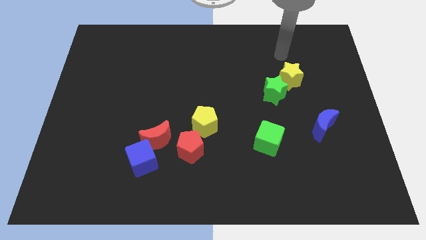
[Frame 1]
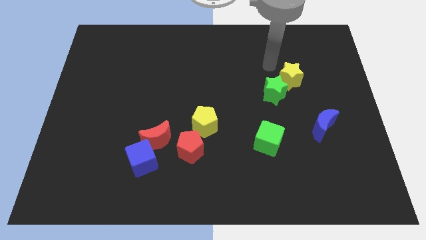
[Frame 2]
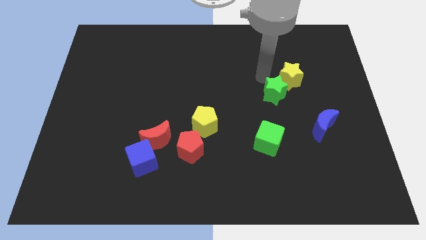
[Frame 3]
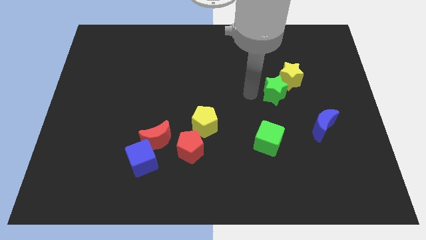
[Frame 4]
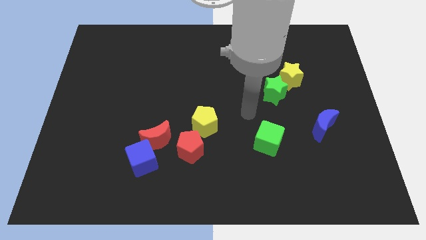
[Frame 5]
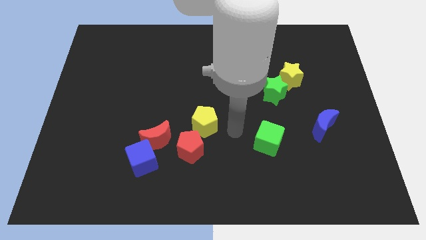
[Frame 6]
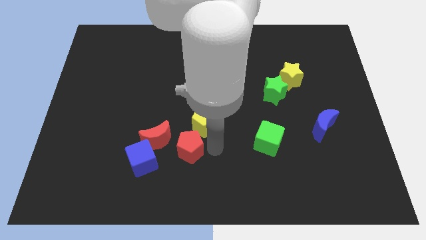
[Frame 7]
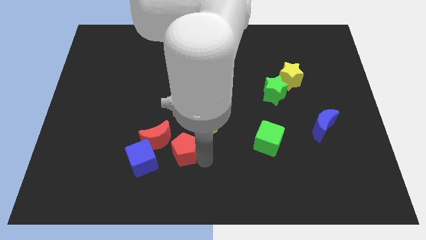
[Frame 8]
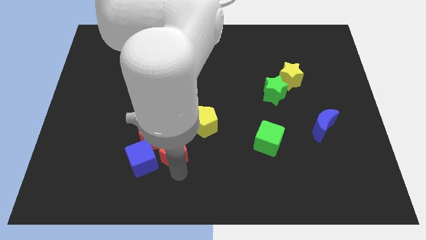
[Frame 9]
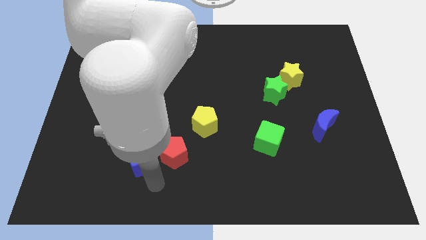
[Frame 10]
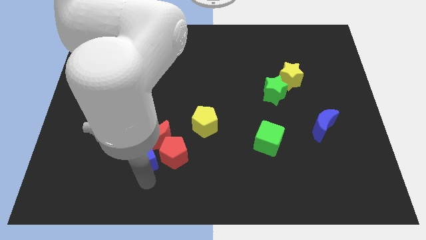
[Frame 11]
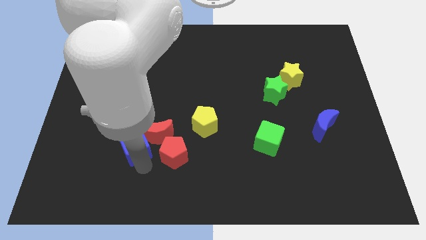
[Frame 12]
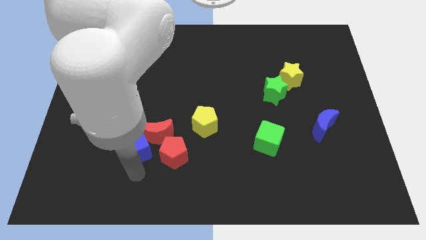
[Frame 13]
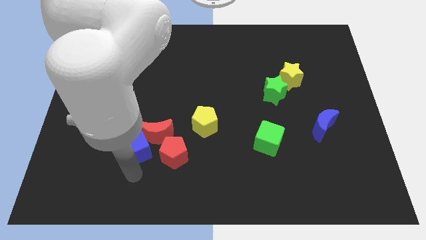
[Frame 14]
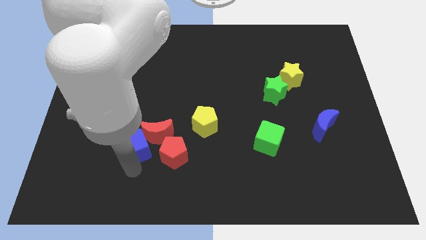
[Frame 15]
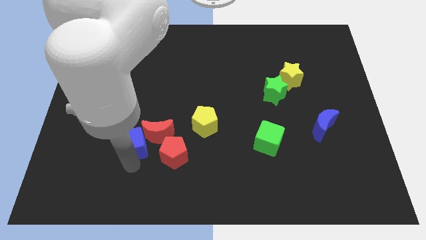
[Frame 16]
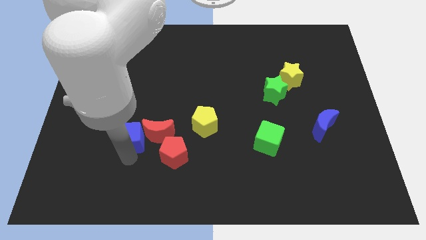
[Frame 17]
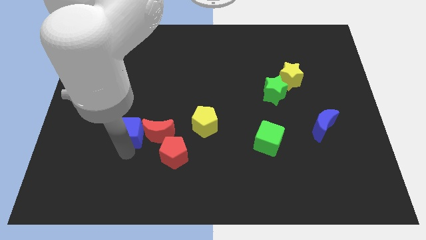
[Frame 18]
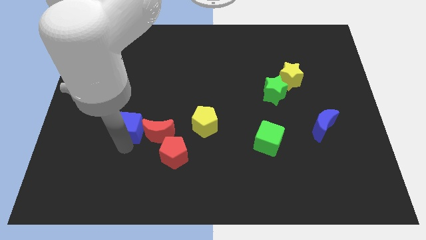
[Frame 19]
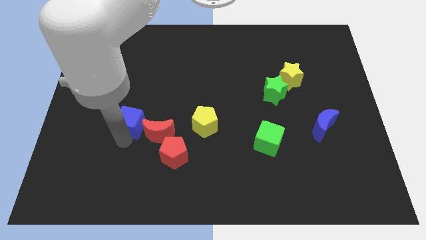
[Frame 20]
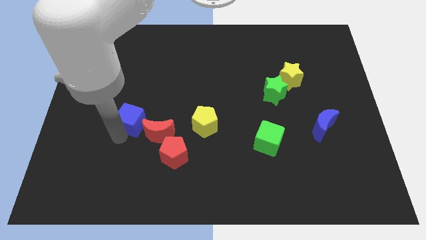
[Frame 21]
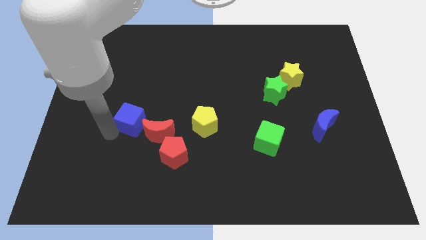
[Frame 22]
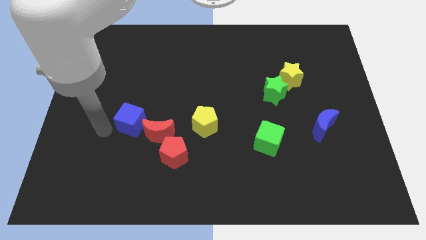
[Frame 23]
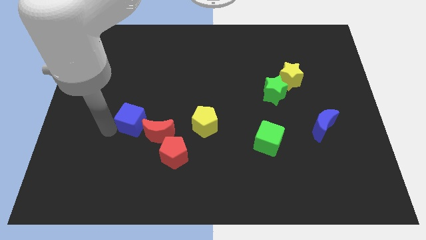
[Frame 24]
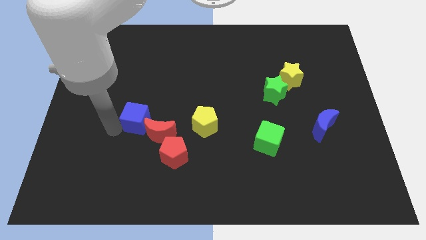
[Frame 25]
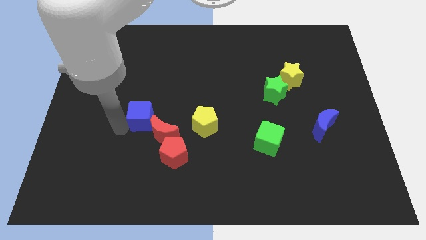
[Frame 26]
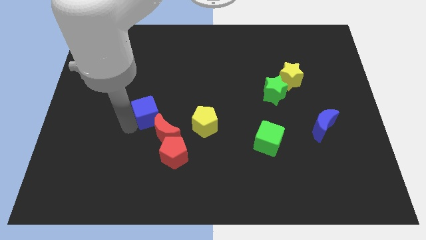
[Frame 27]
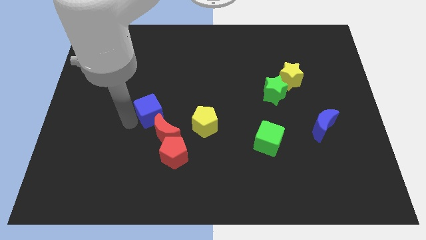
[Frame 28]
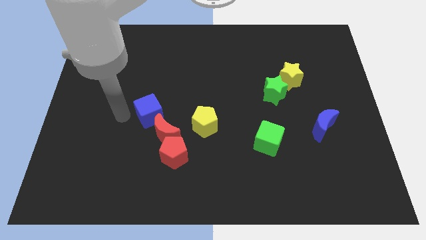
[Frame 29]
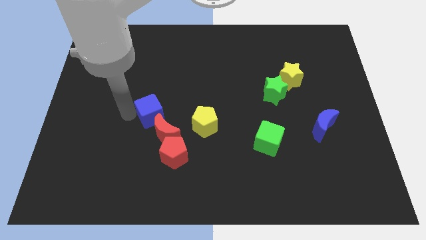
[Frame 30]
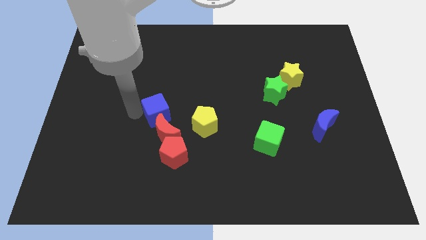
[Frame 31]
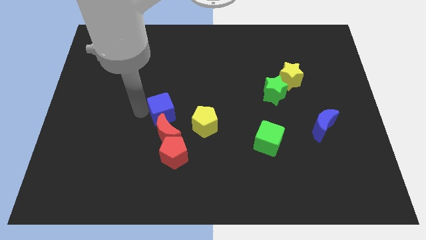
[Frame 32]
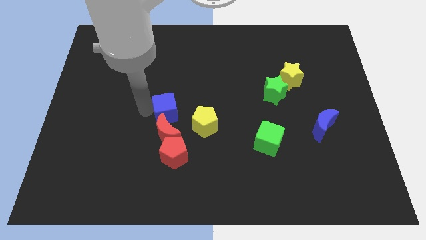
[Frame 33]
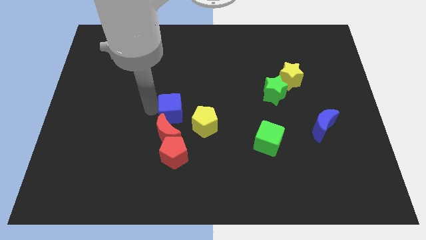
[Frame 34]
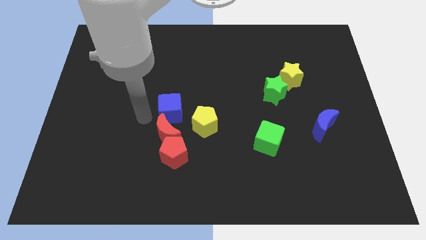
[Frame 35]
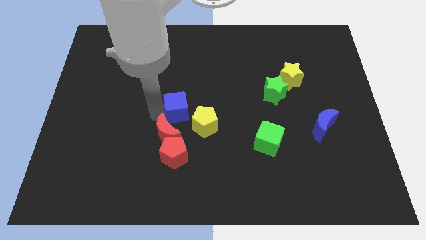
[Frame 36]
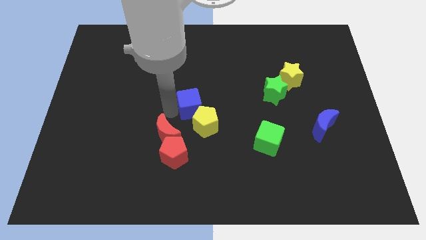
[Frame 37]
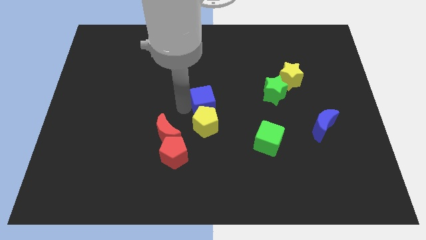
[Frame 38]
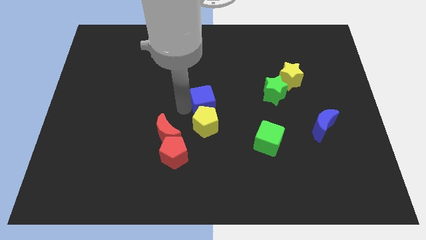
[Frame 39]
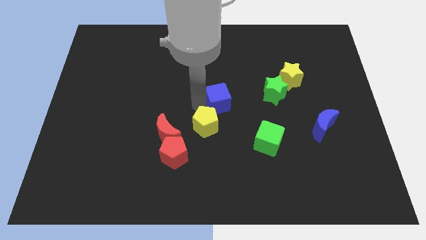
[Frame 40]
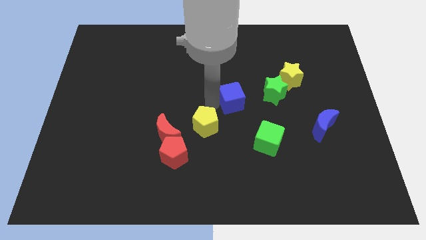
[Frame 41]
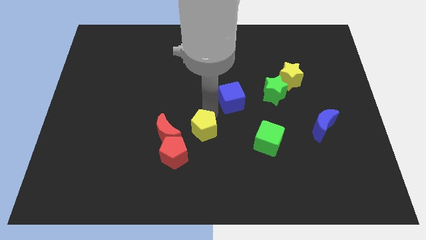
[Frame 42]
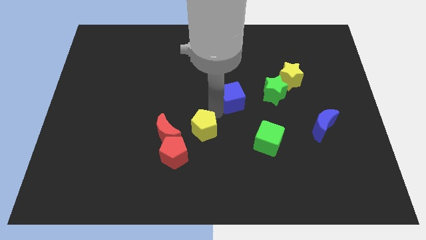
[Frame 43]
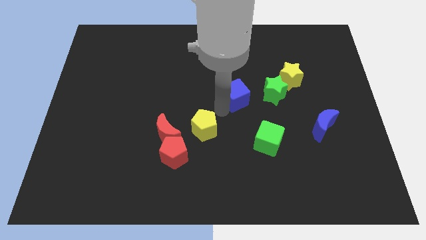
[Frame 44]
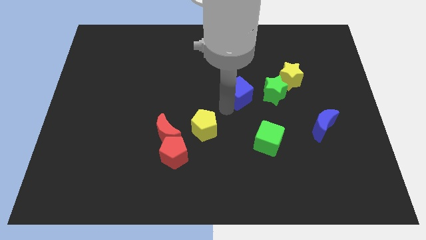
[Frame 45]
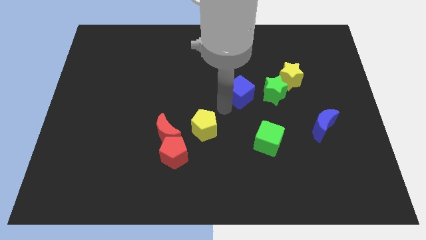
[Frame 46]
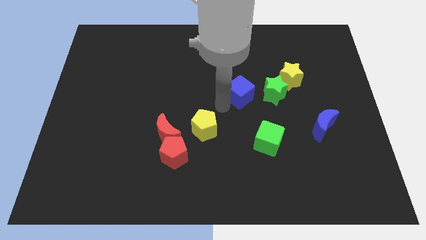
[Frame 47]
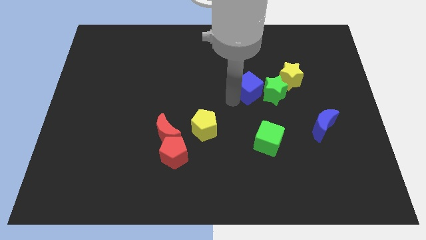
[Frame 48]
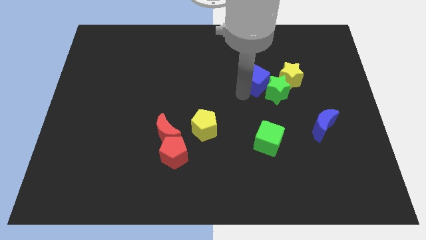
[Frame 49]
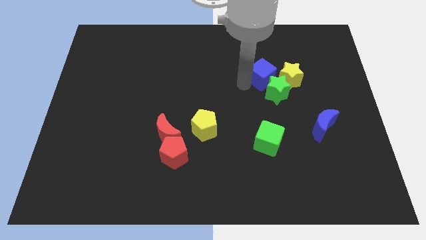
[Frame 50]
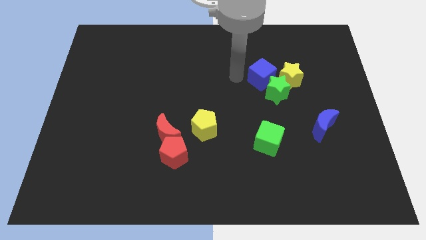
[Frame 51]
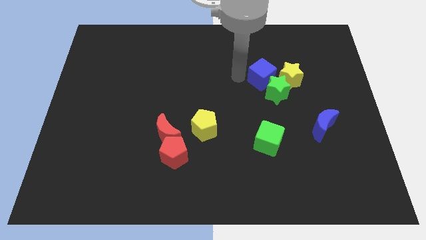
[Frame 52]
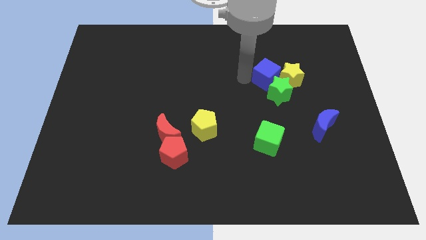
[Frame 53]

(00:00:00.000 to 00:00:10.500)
slide the blue cube close to the yellow star

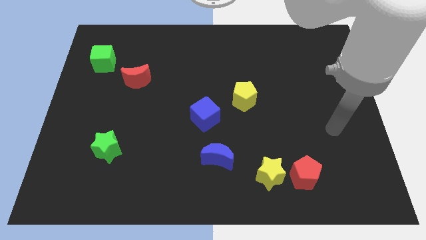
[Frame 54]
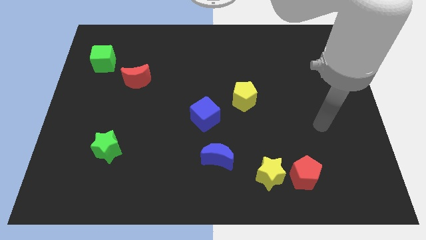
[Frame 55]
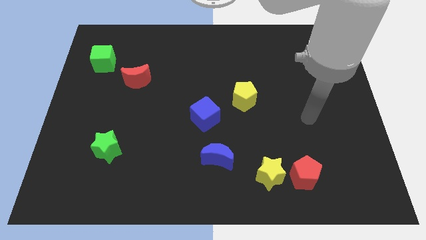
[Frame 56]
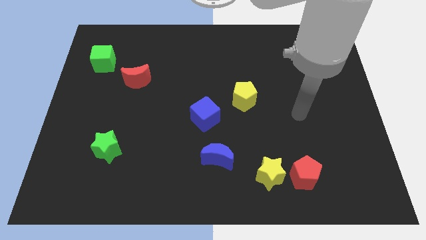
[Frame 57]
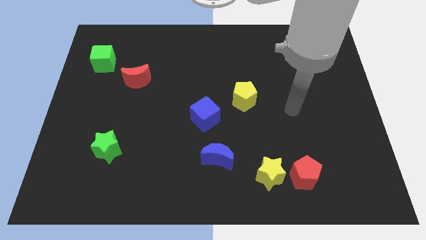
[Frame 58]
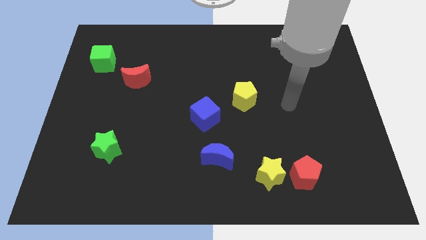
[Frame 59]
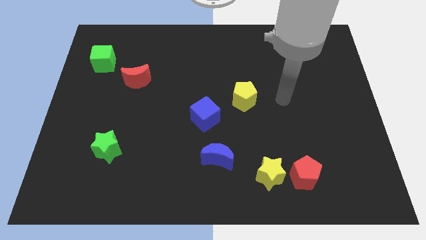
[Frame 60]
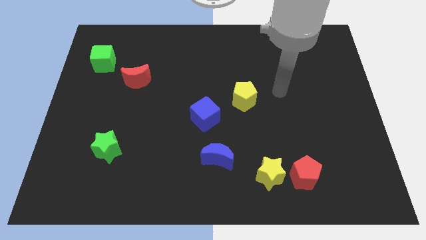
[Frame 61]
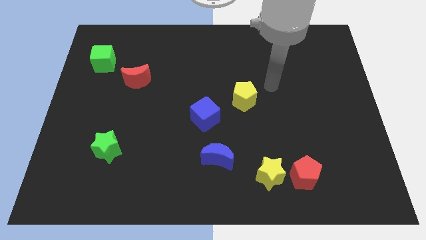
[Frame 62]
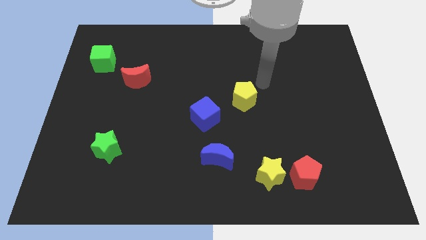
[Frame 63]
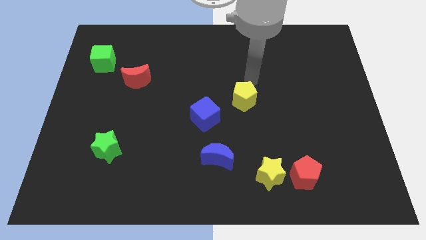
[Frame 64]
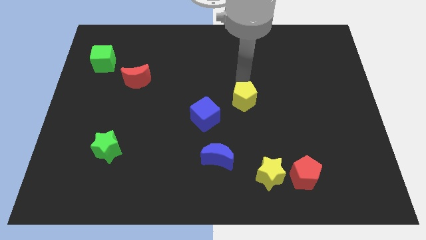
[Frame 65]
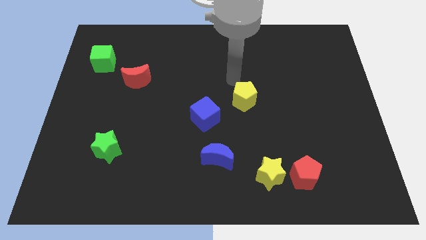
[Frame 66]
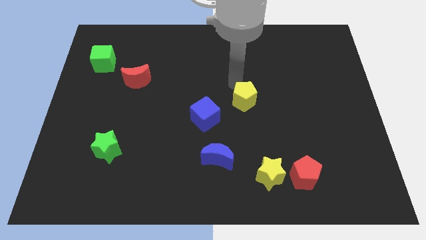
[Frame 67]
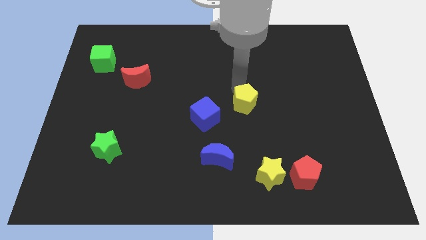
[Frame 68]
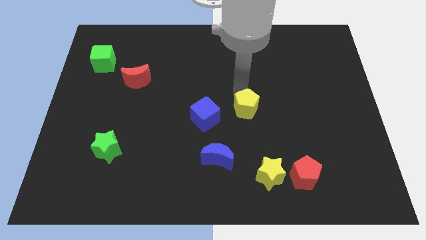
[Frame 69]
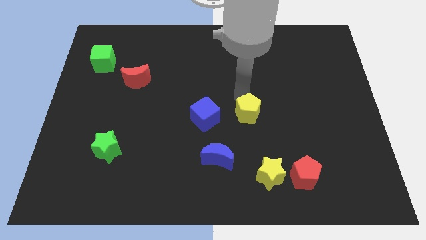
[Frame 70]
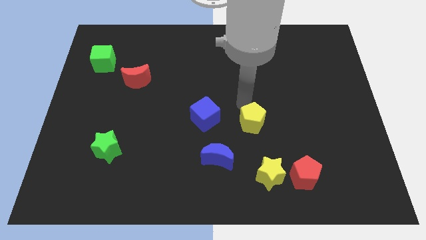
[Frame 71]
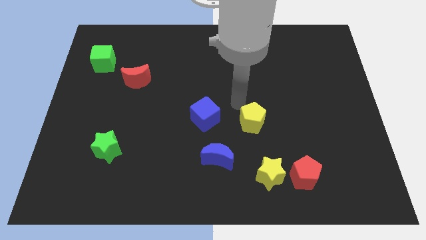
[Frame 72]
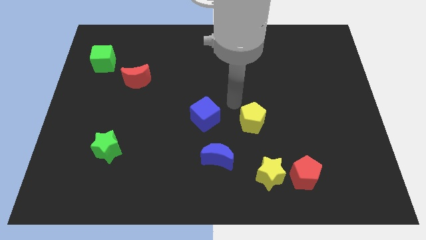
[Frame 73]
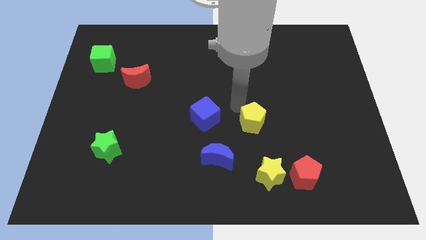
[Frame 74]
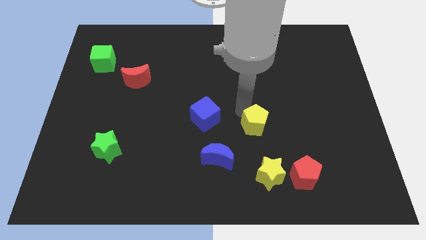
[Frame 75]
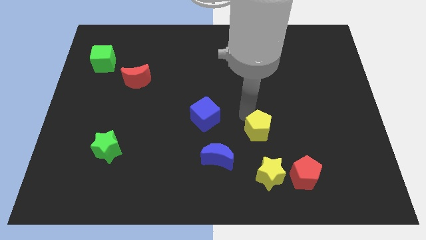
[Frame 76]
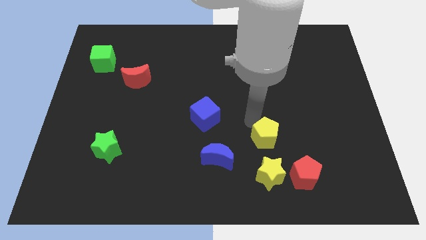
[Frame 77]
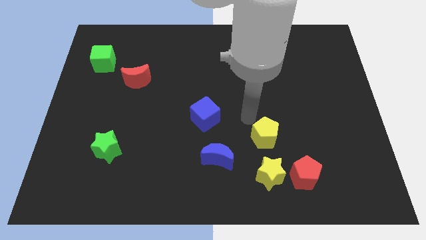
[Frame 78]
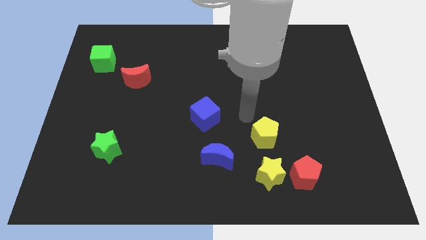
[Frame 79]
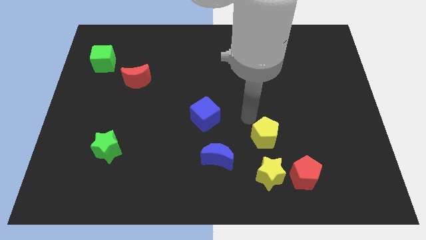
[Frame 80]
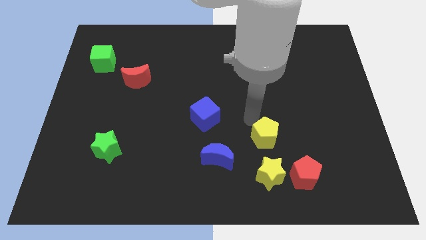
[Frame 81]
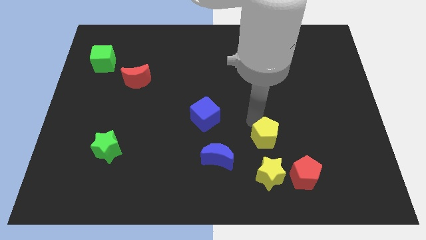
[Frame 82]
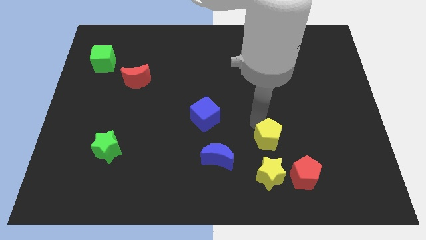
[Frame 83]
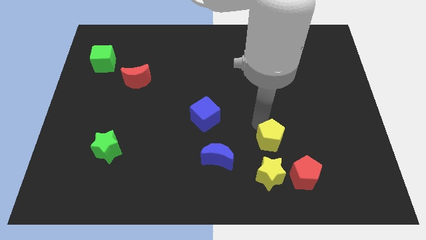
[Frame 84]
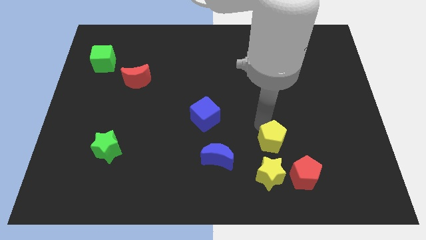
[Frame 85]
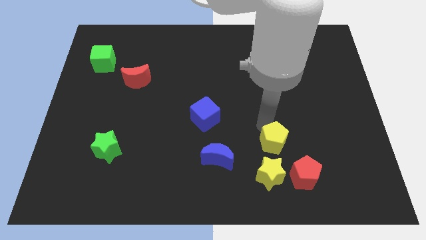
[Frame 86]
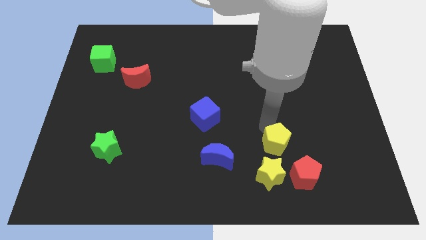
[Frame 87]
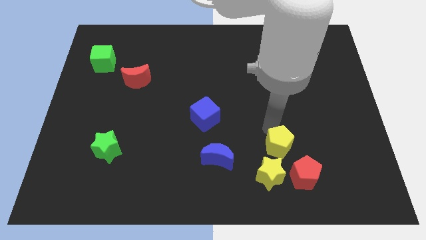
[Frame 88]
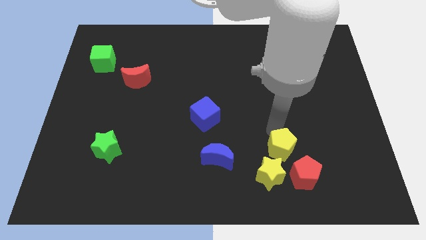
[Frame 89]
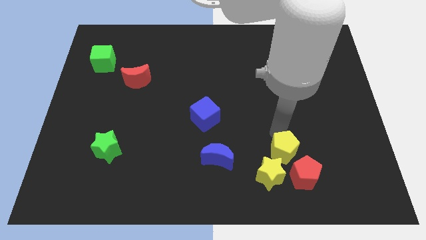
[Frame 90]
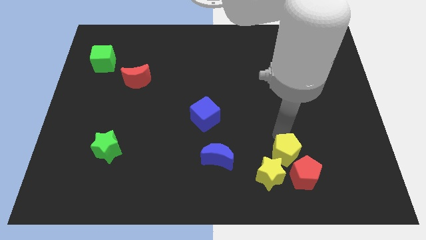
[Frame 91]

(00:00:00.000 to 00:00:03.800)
move the yellow pentagon next to the red pentagon
